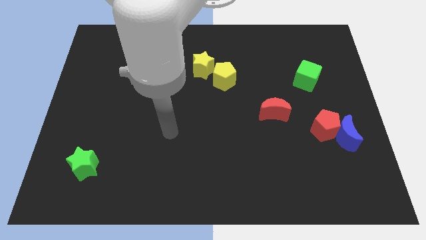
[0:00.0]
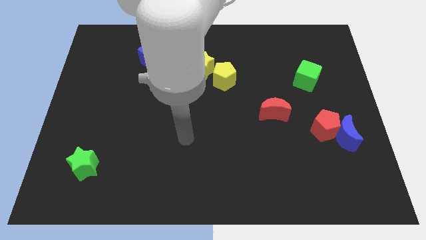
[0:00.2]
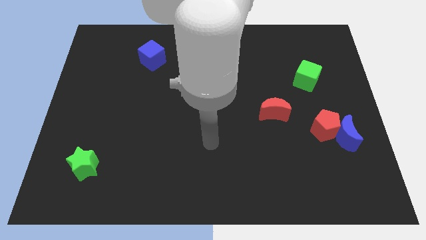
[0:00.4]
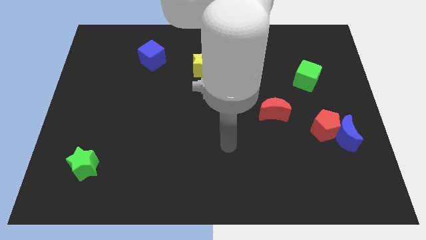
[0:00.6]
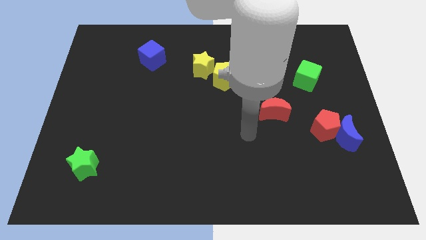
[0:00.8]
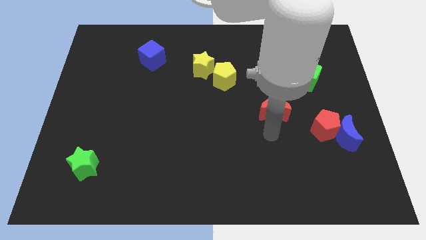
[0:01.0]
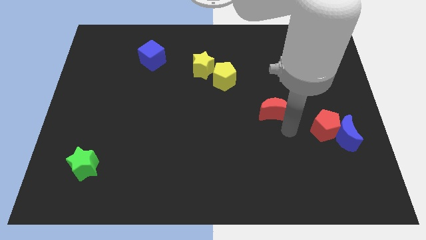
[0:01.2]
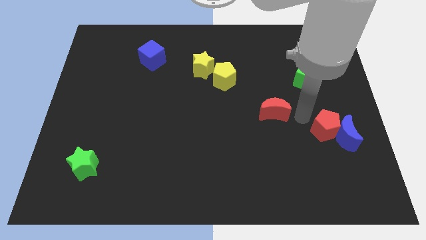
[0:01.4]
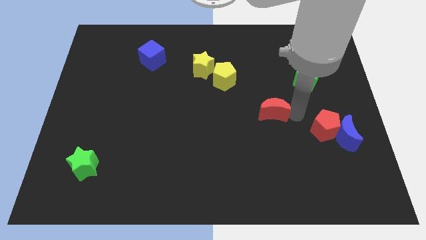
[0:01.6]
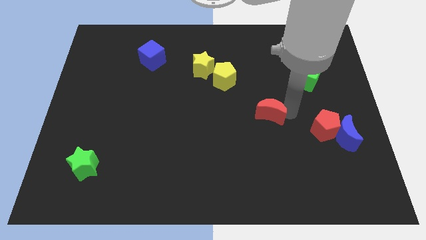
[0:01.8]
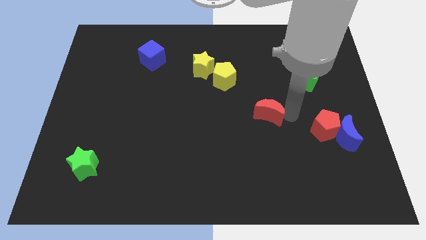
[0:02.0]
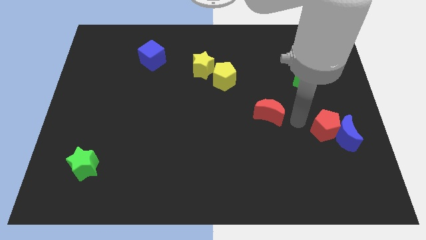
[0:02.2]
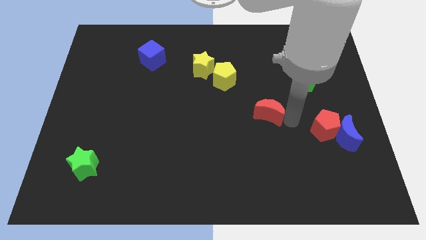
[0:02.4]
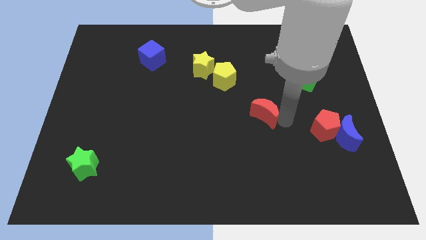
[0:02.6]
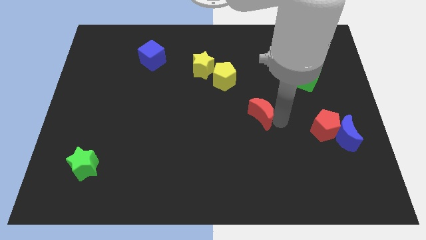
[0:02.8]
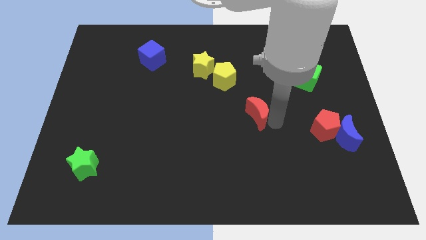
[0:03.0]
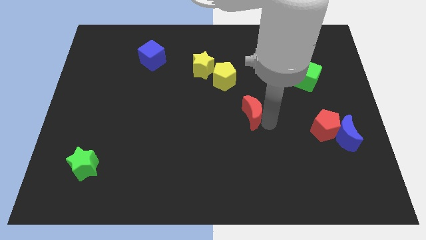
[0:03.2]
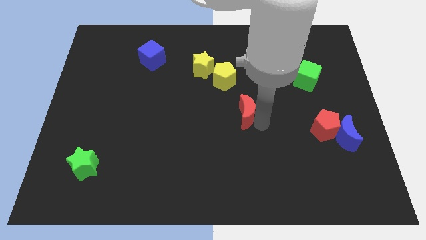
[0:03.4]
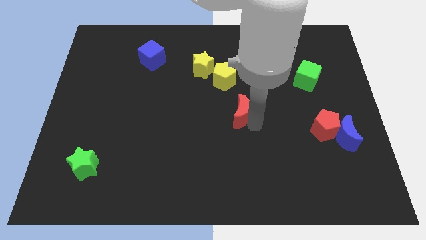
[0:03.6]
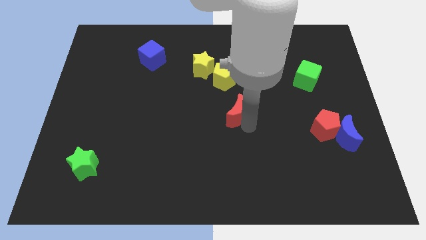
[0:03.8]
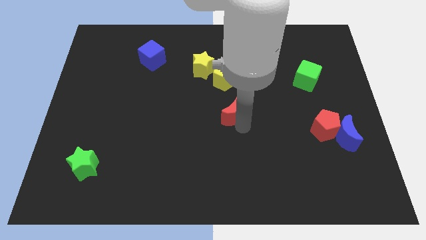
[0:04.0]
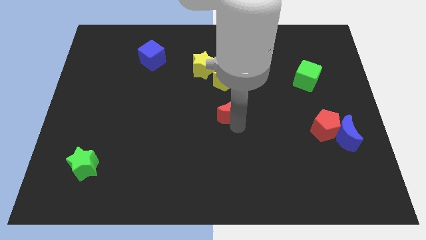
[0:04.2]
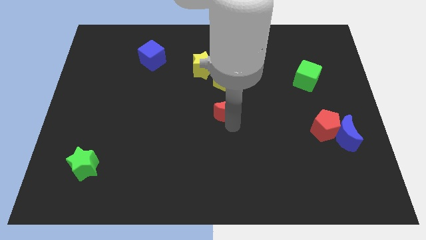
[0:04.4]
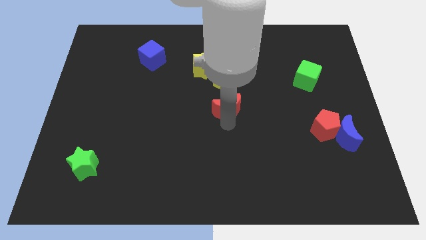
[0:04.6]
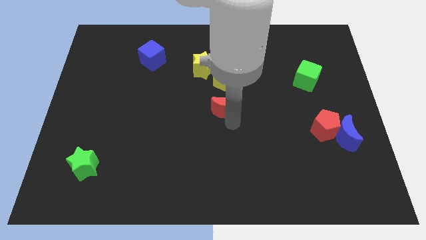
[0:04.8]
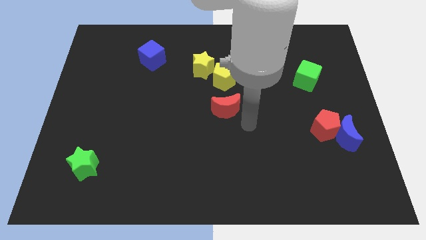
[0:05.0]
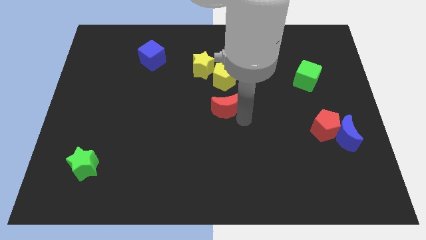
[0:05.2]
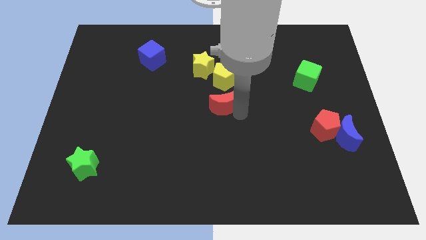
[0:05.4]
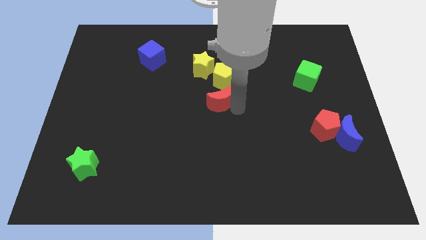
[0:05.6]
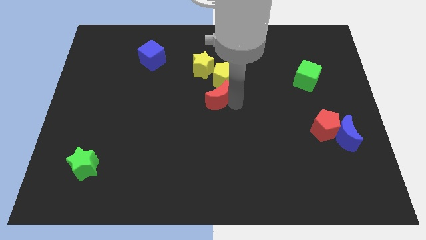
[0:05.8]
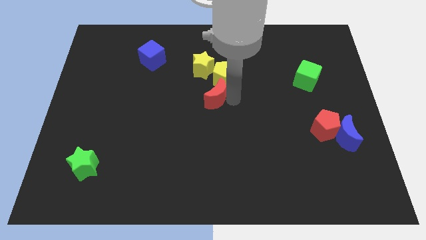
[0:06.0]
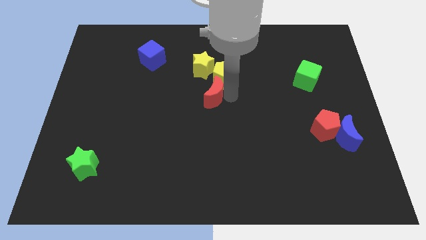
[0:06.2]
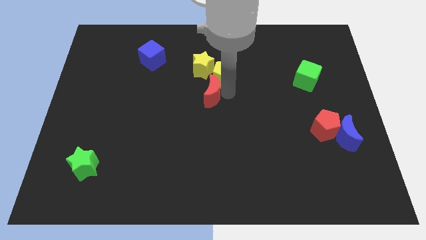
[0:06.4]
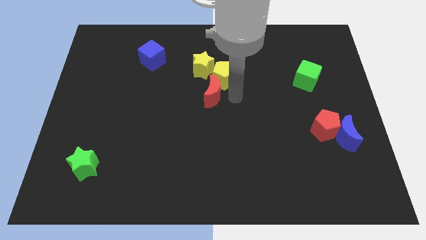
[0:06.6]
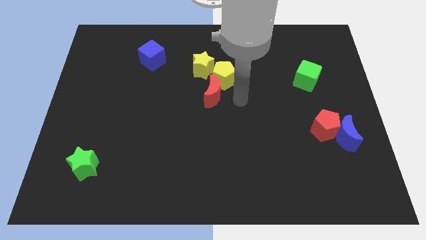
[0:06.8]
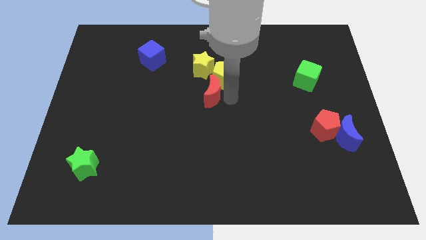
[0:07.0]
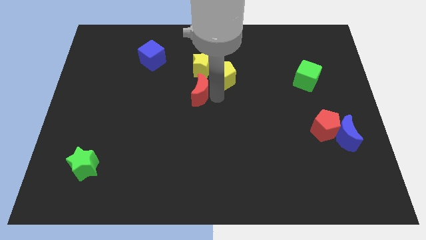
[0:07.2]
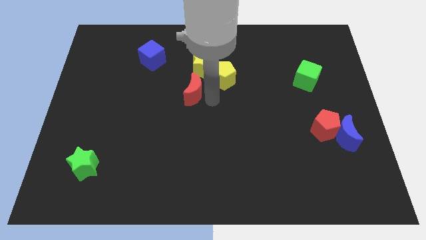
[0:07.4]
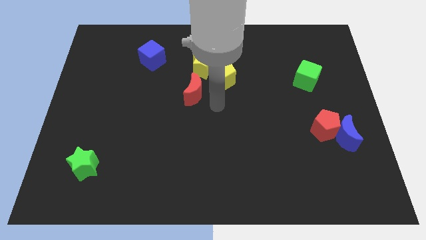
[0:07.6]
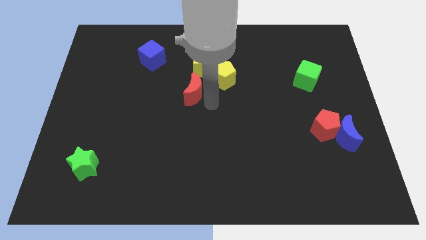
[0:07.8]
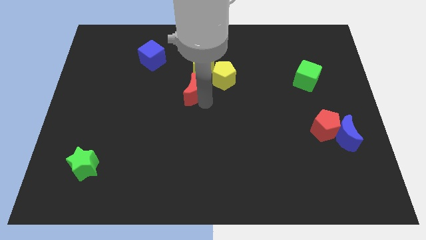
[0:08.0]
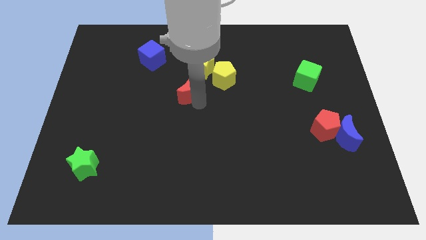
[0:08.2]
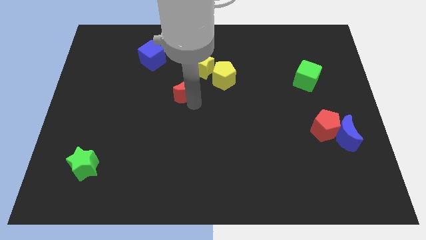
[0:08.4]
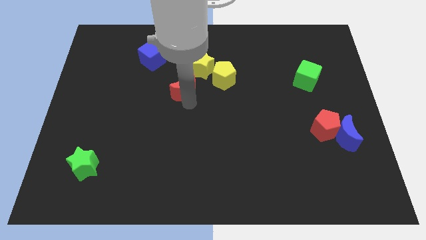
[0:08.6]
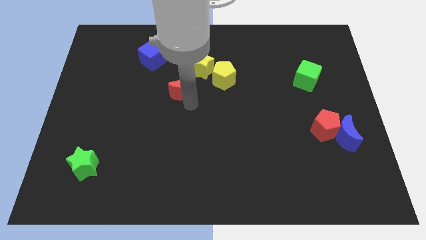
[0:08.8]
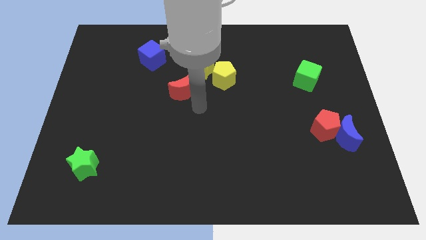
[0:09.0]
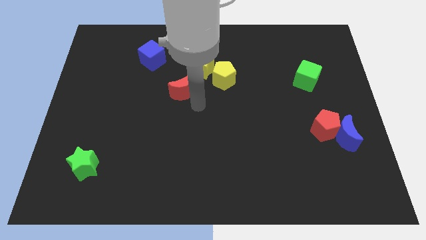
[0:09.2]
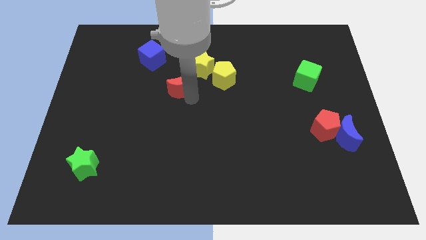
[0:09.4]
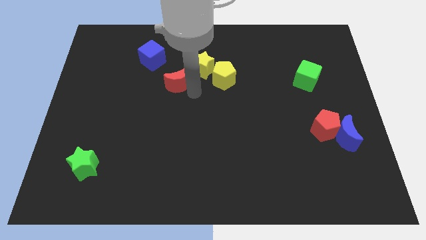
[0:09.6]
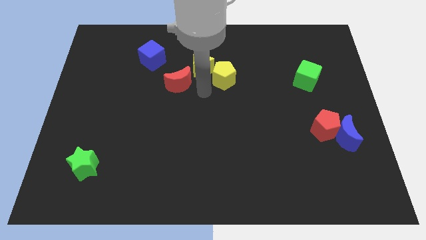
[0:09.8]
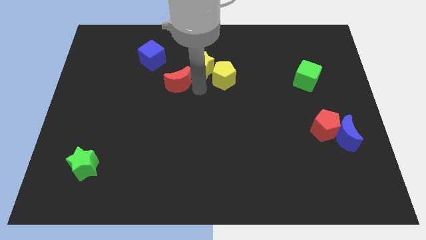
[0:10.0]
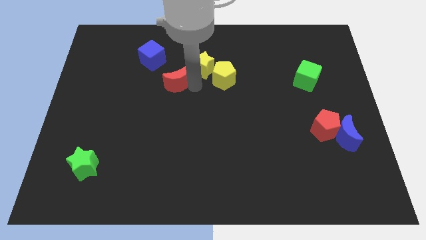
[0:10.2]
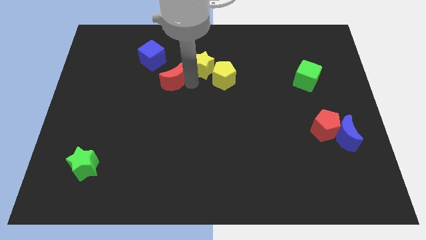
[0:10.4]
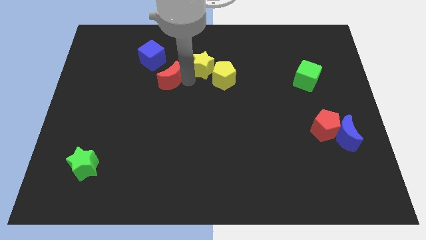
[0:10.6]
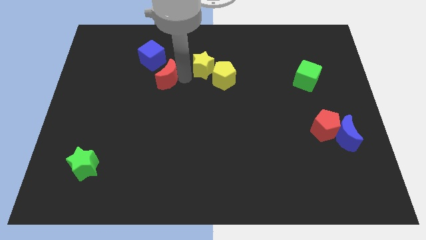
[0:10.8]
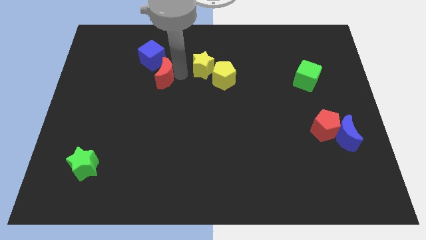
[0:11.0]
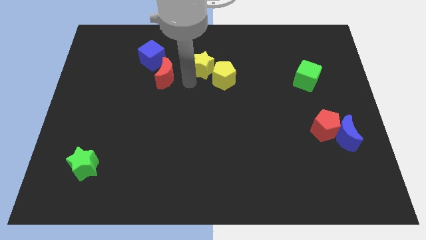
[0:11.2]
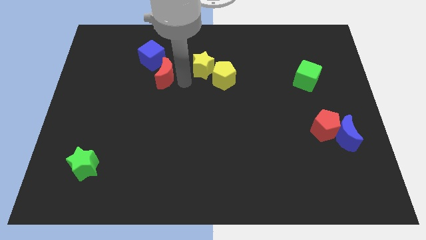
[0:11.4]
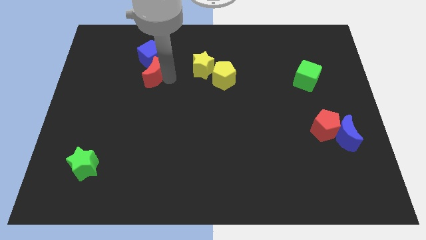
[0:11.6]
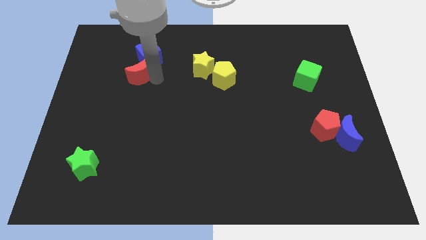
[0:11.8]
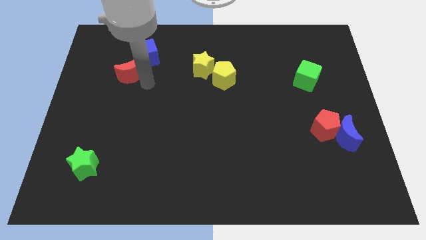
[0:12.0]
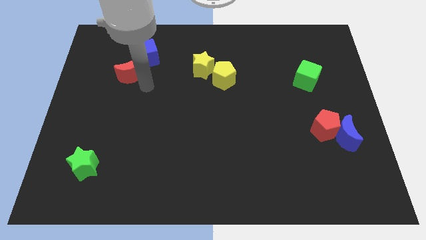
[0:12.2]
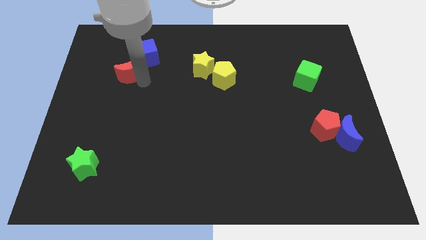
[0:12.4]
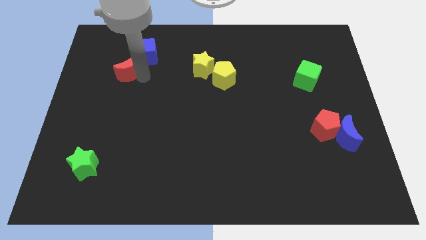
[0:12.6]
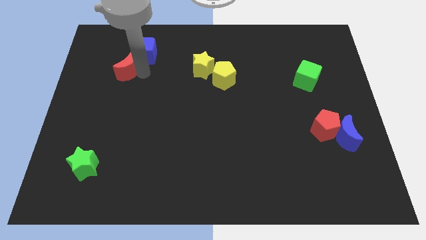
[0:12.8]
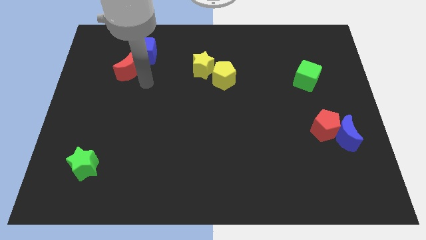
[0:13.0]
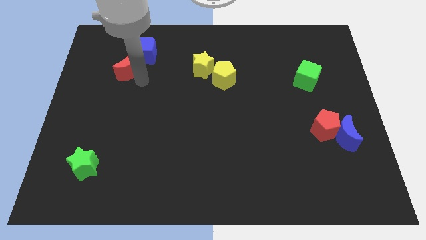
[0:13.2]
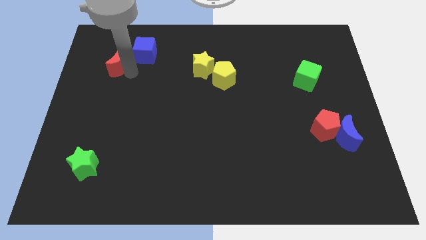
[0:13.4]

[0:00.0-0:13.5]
slide the red moon left of the blue cube
